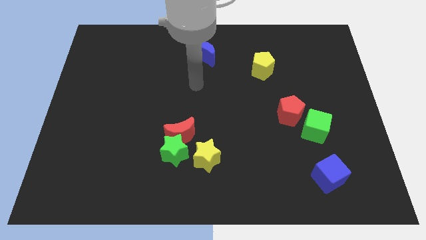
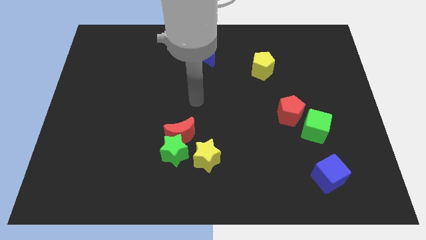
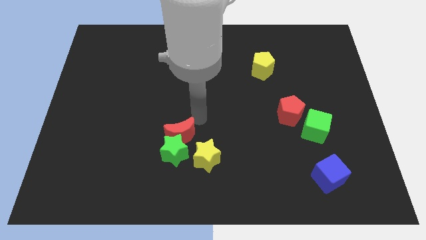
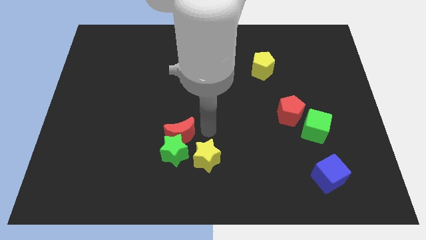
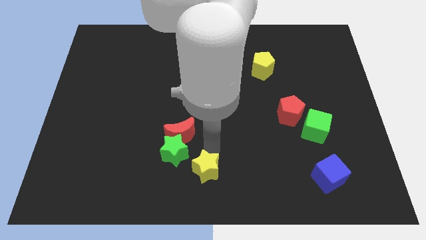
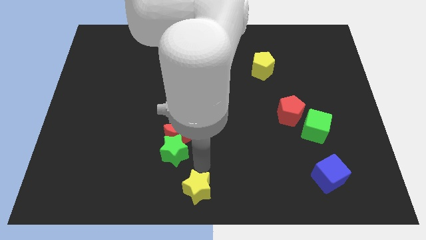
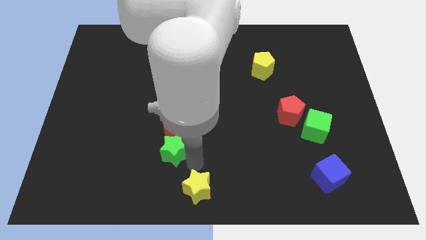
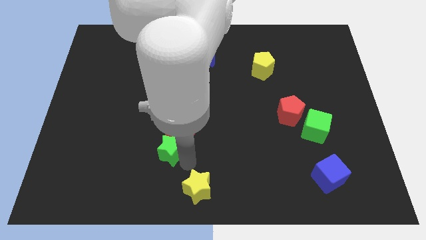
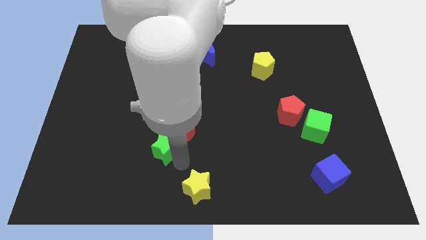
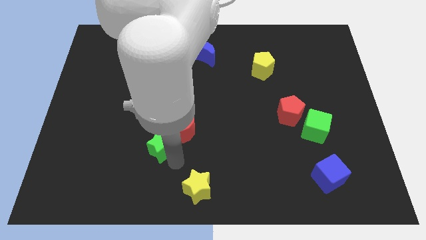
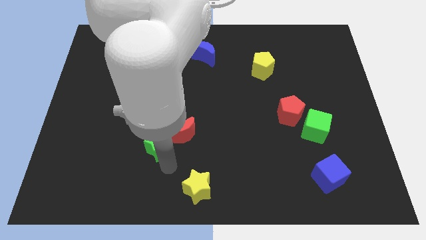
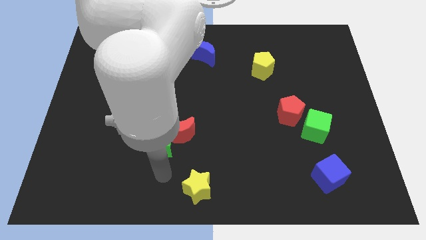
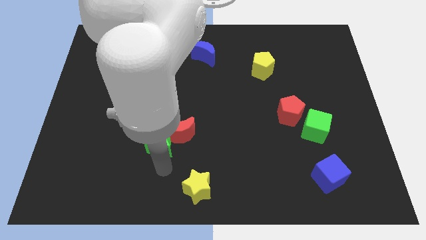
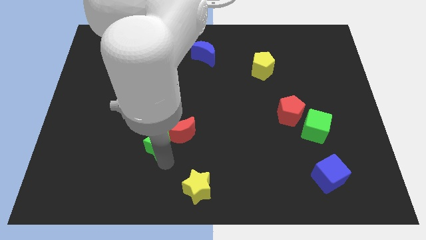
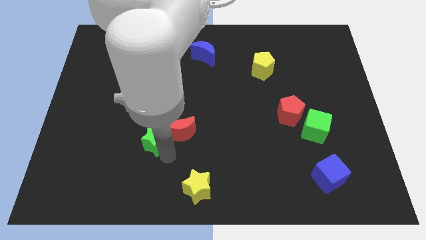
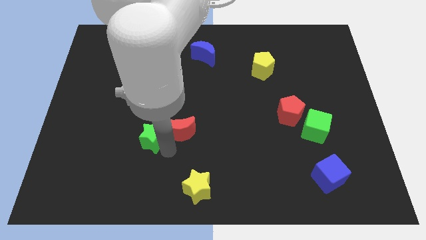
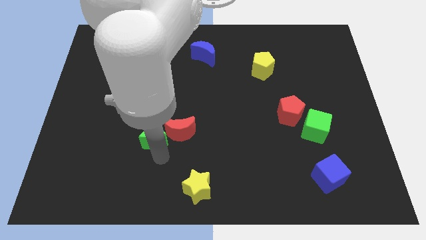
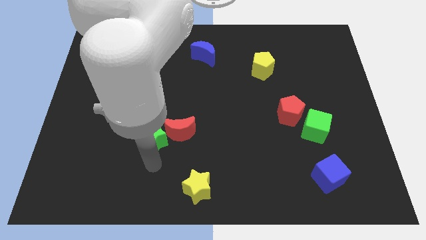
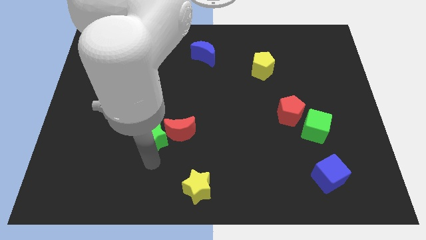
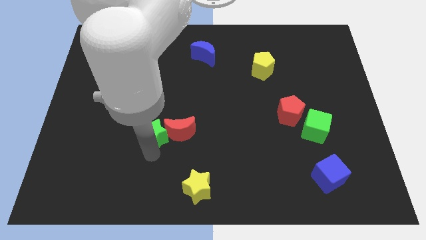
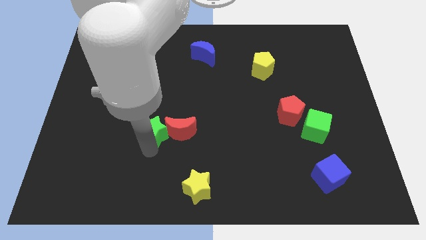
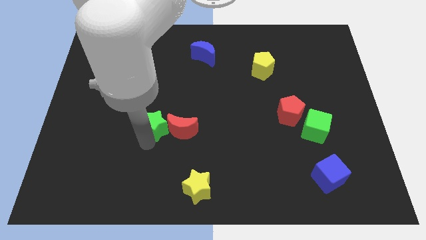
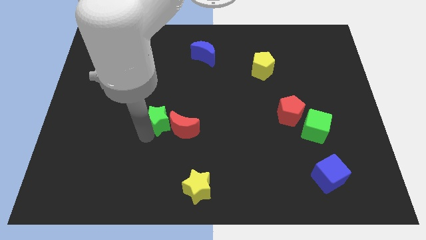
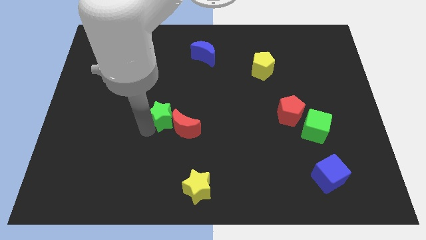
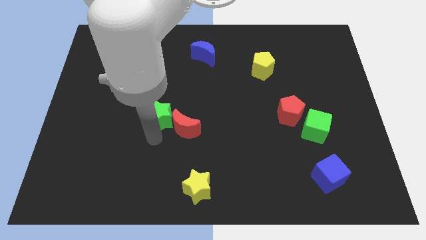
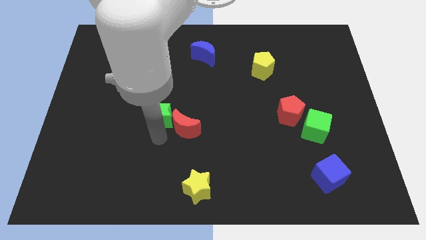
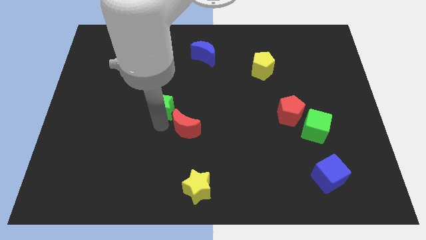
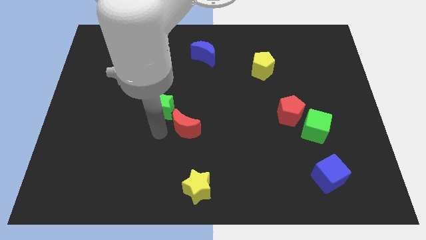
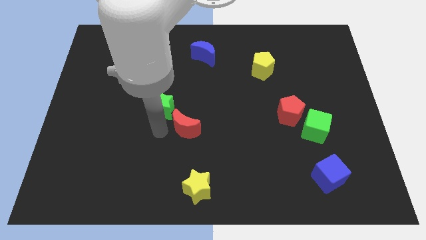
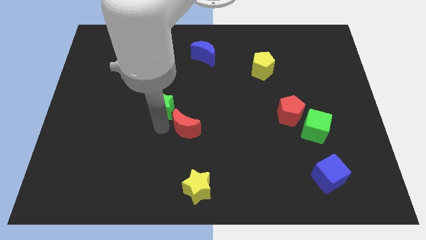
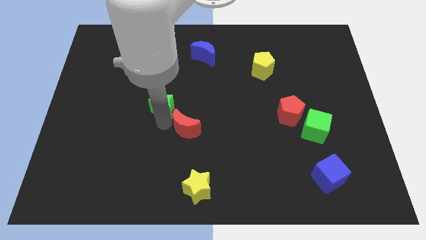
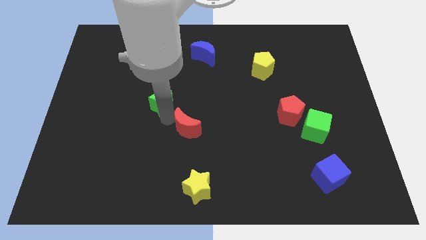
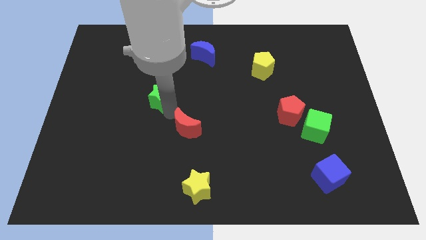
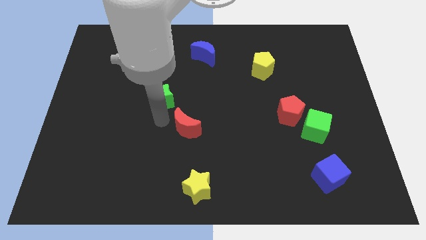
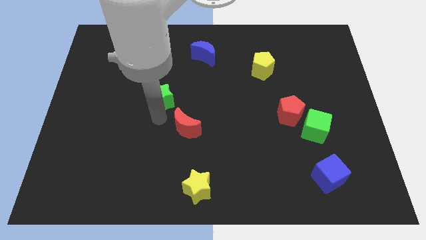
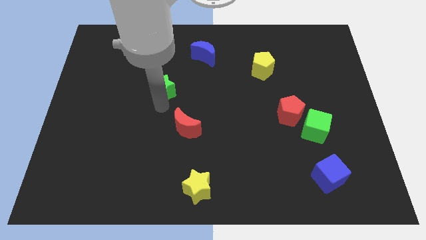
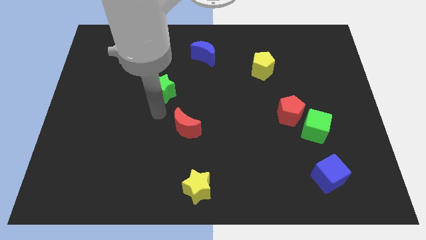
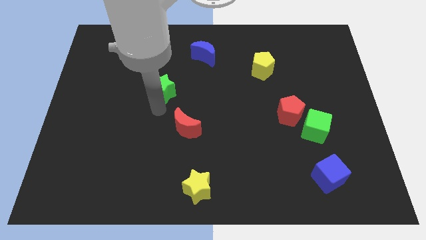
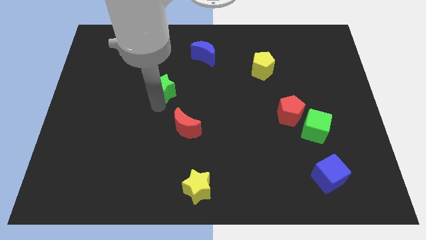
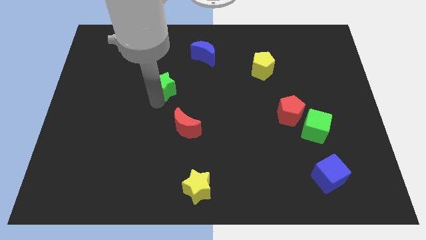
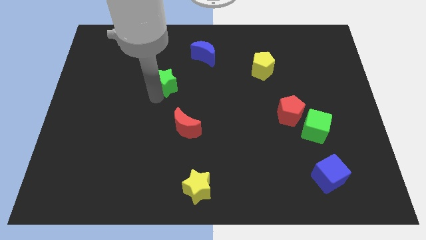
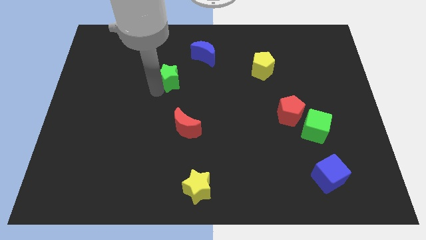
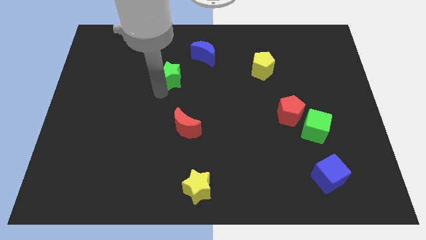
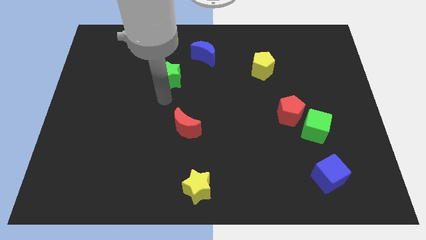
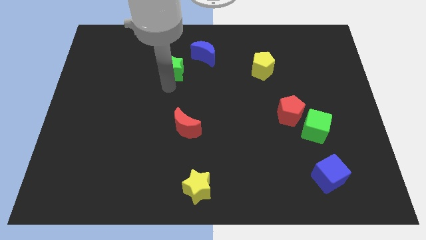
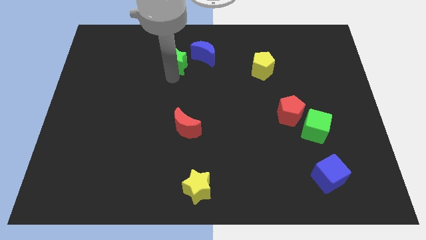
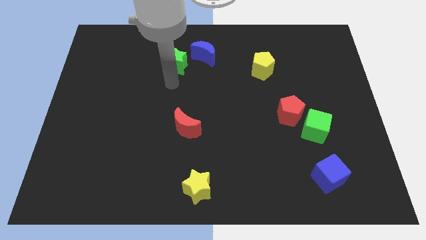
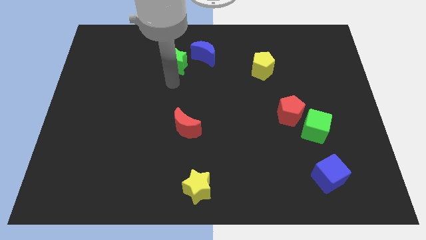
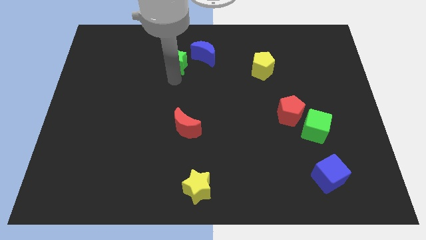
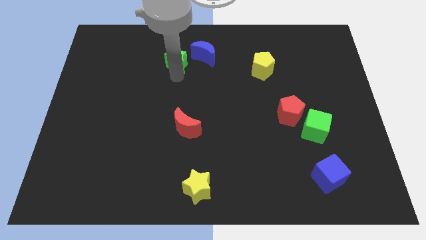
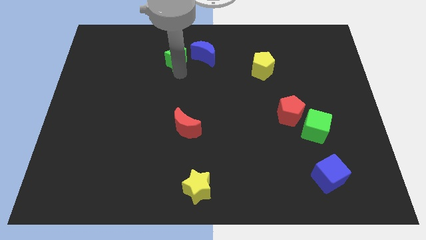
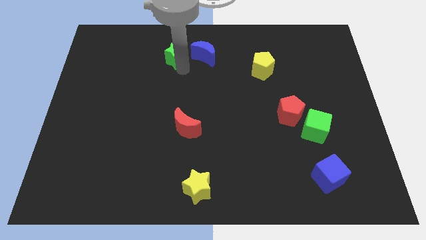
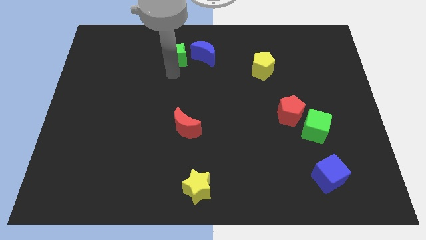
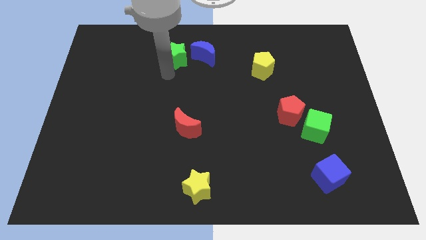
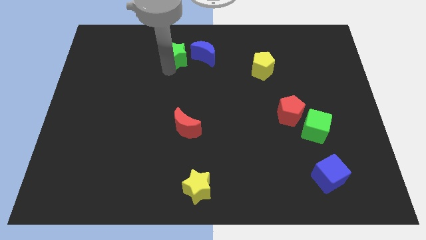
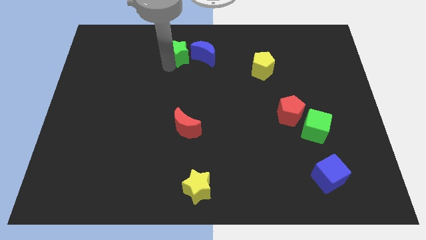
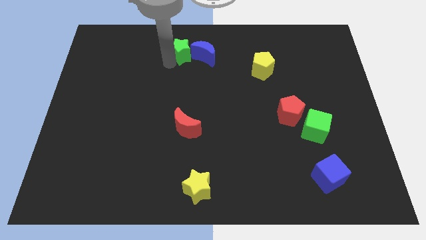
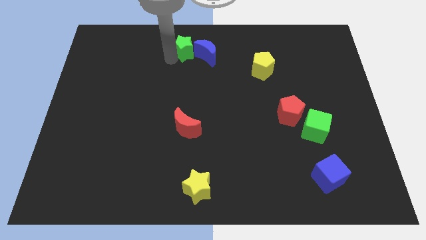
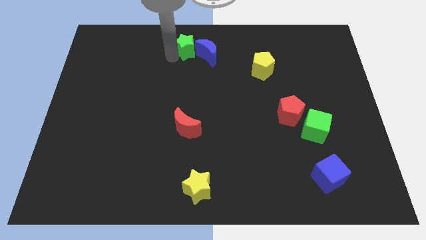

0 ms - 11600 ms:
push the green star to the top side

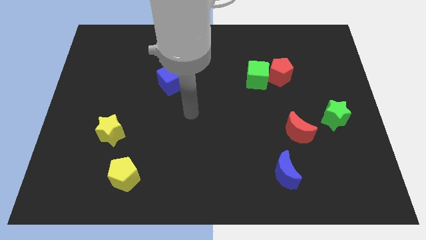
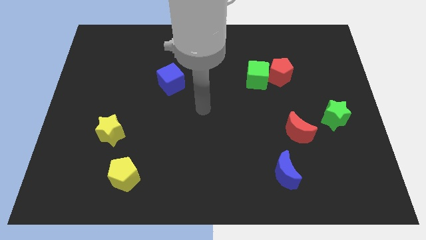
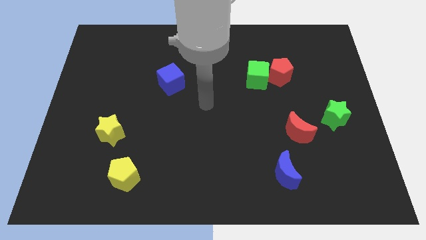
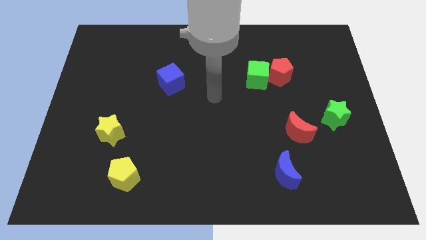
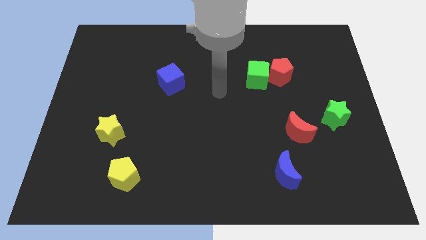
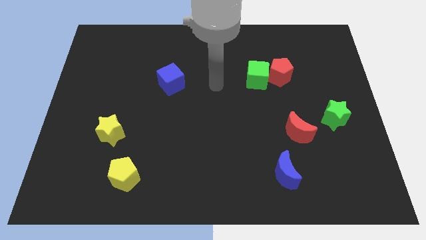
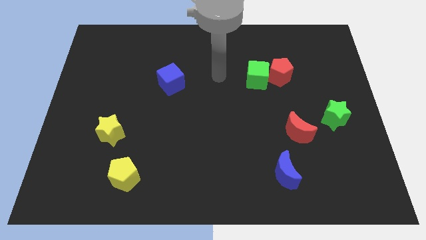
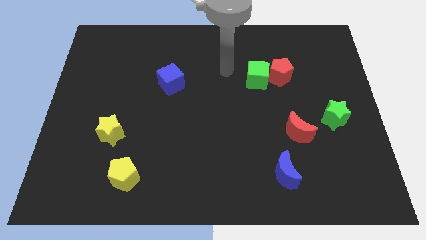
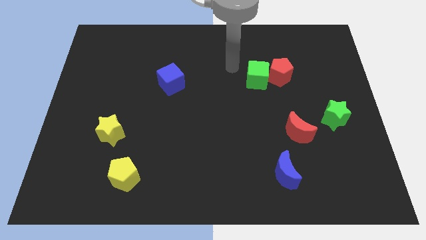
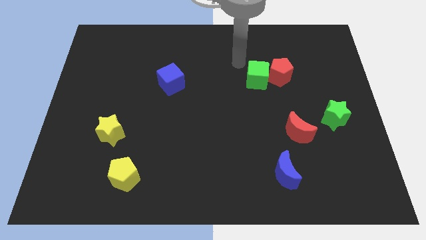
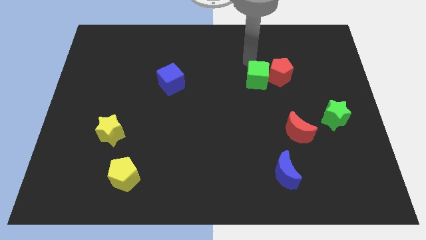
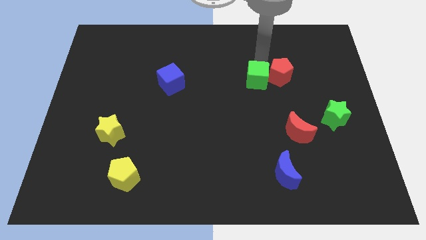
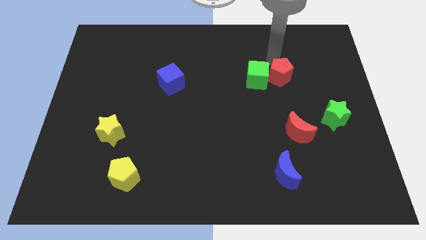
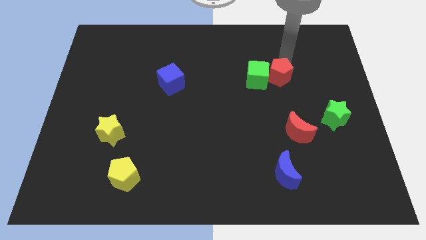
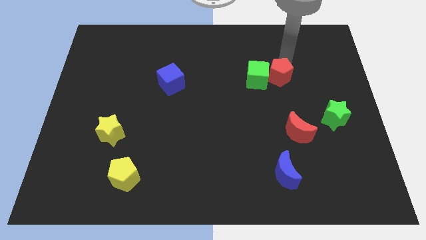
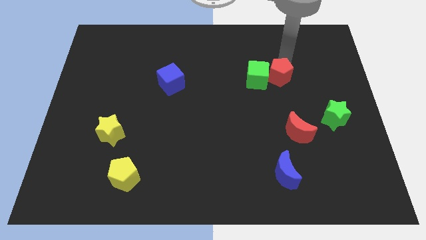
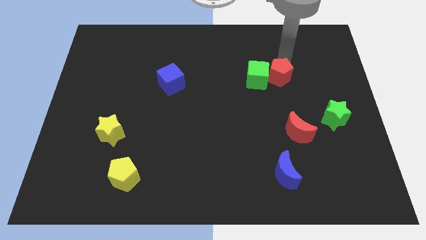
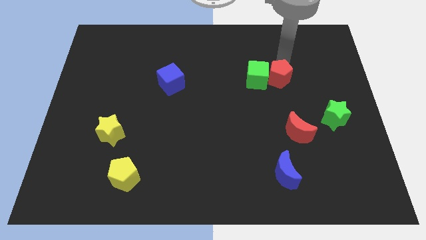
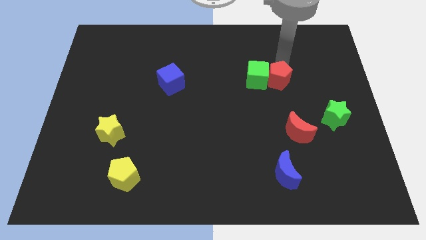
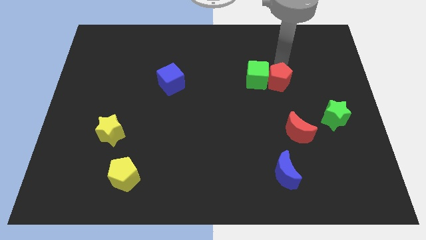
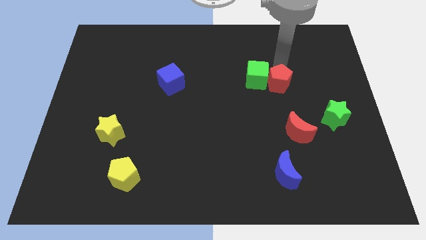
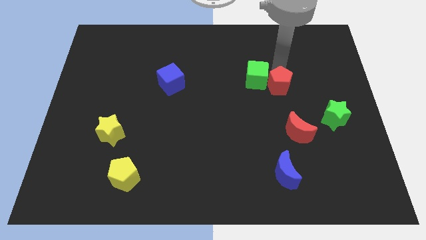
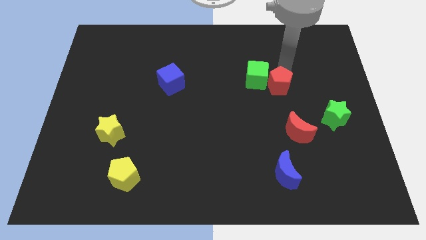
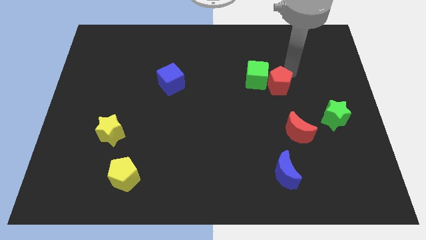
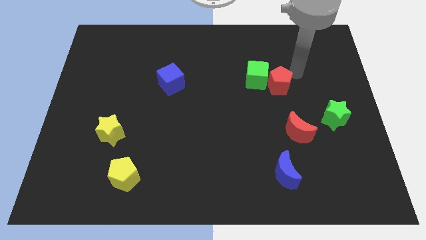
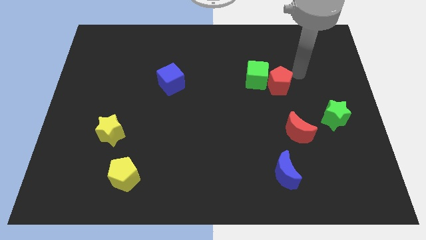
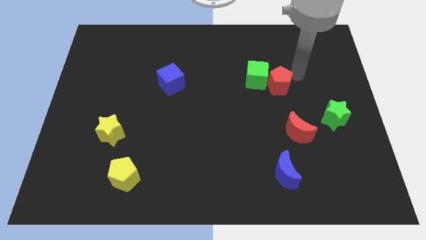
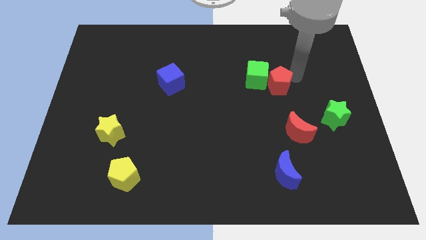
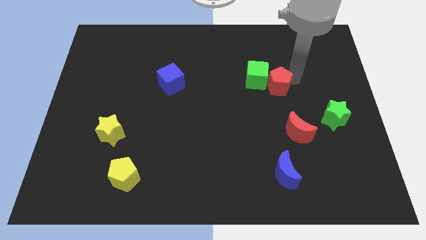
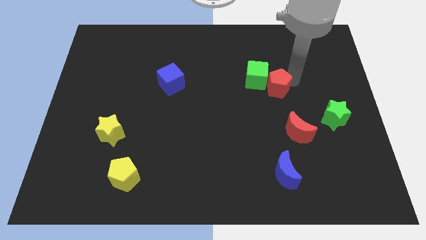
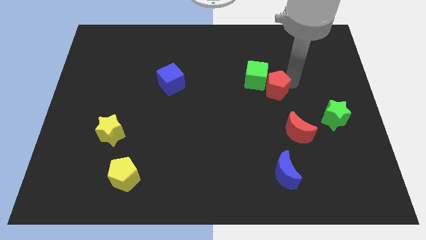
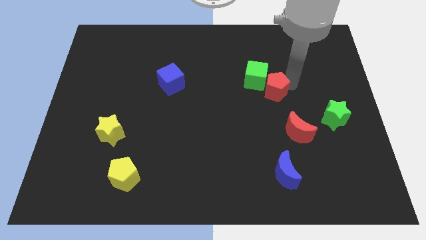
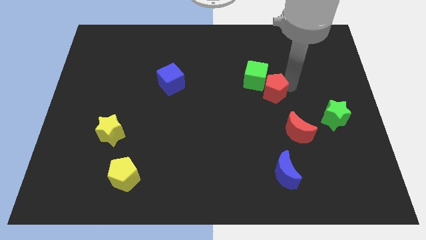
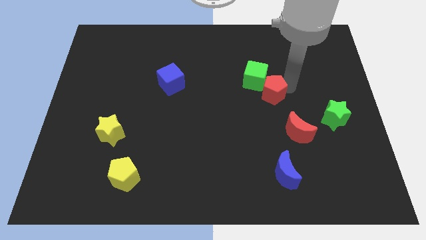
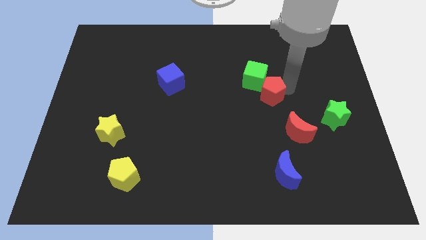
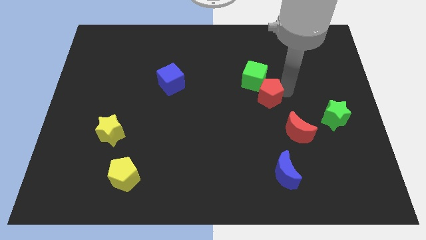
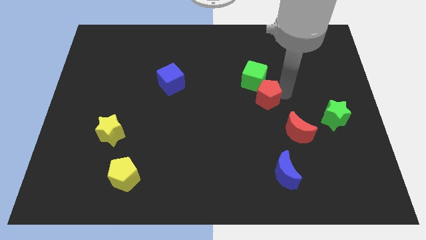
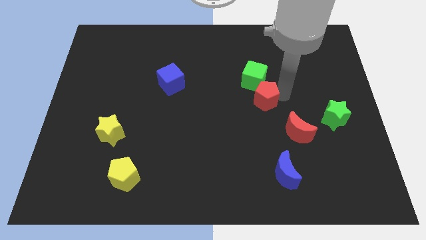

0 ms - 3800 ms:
push the red pentagon to the center of the board
